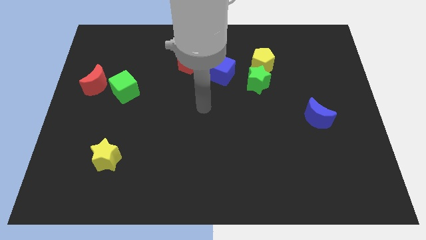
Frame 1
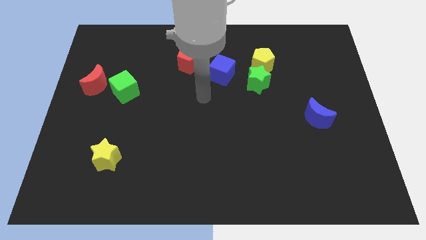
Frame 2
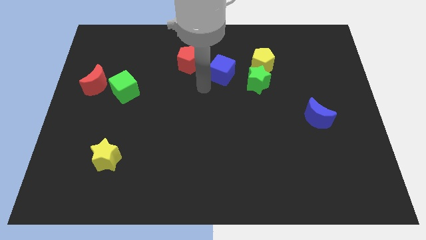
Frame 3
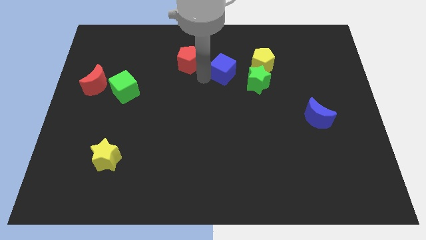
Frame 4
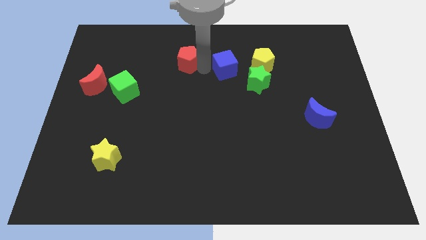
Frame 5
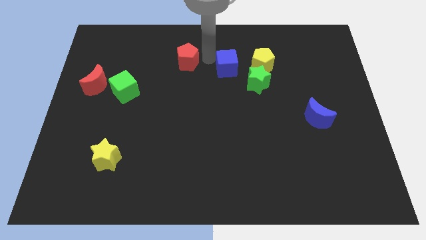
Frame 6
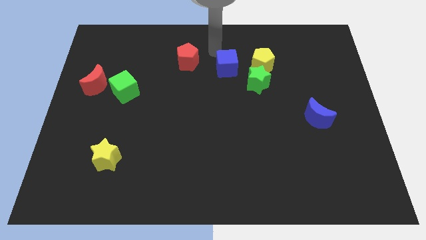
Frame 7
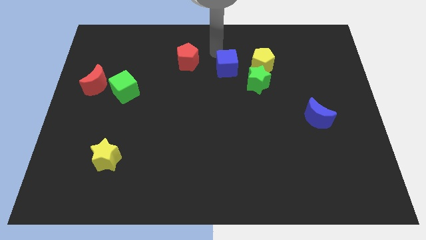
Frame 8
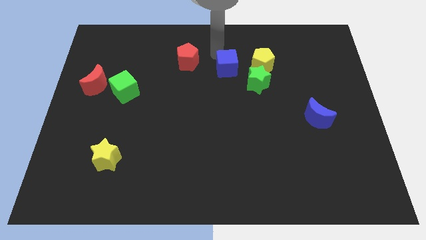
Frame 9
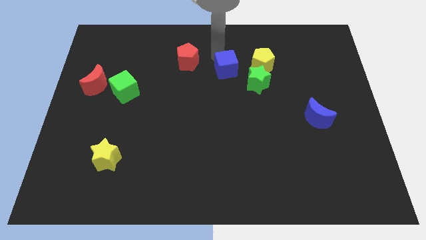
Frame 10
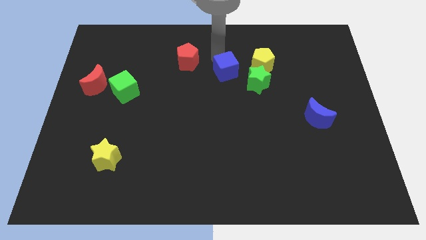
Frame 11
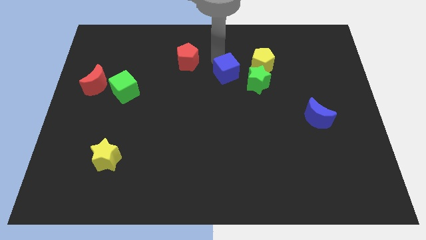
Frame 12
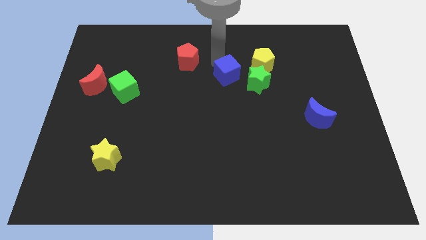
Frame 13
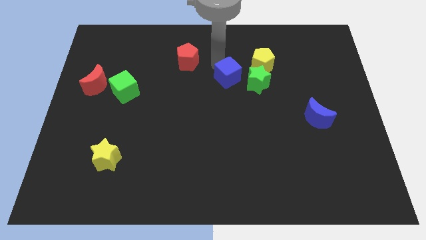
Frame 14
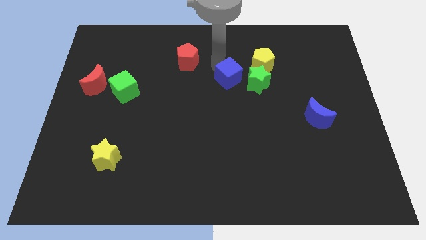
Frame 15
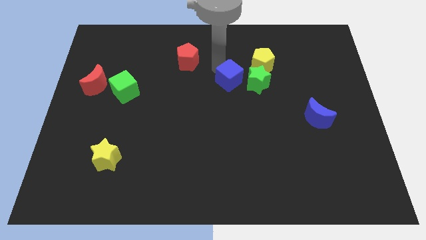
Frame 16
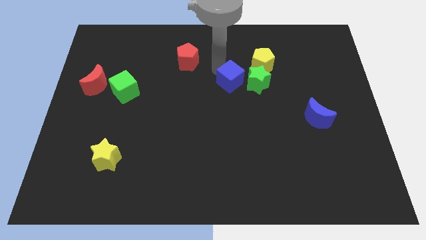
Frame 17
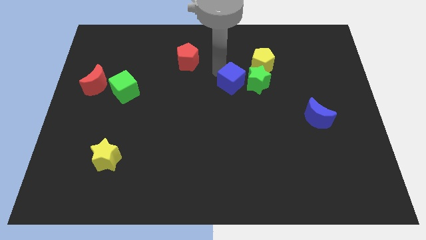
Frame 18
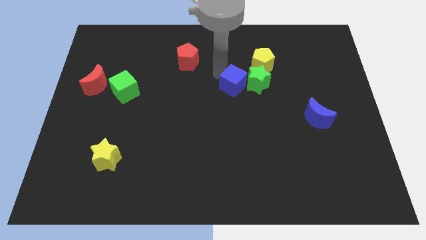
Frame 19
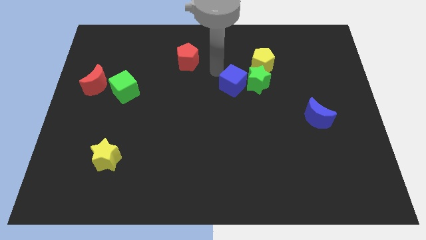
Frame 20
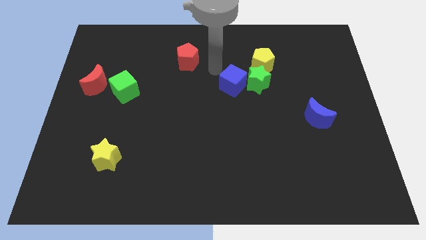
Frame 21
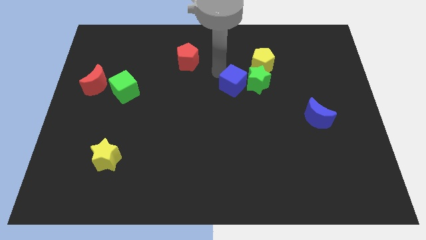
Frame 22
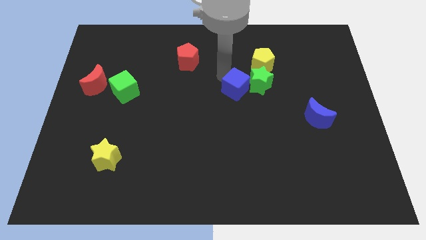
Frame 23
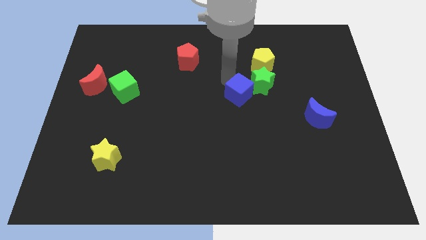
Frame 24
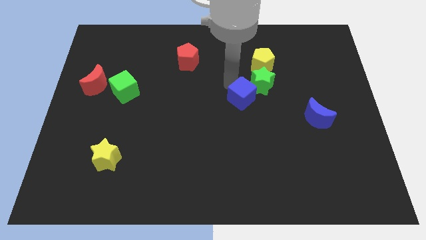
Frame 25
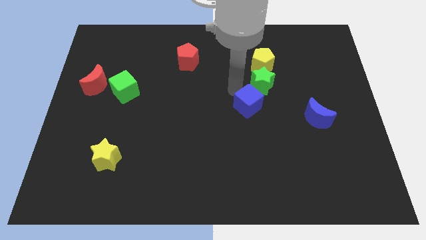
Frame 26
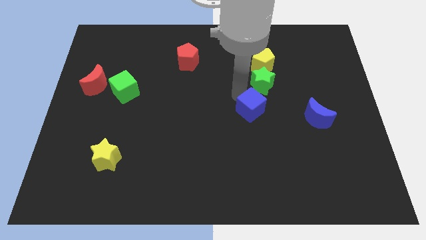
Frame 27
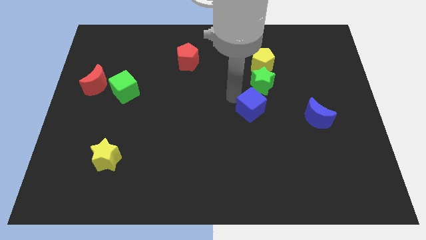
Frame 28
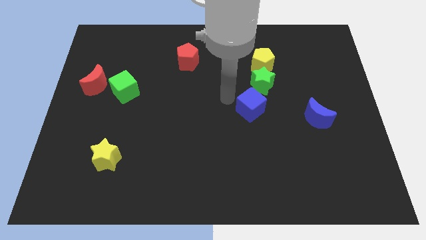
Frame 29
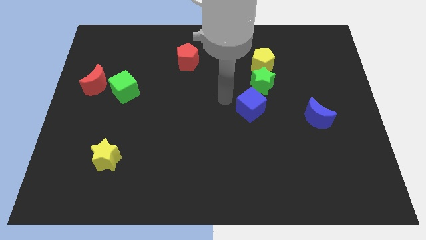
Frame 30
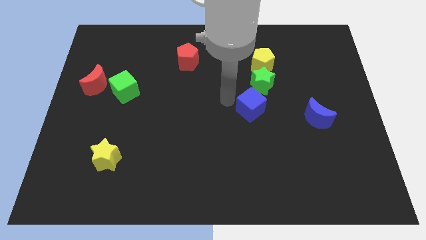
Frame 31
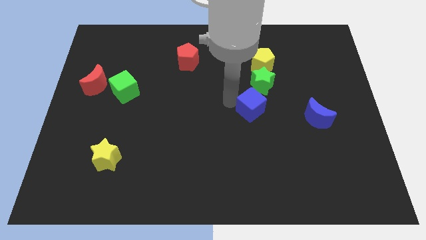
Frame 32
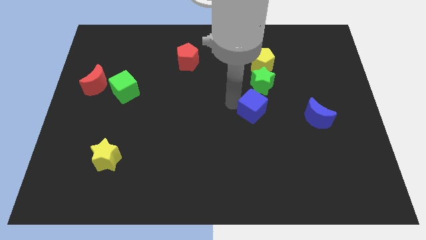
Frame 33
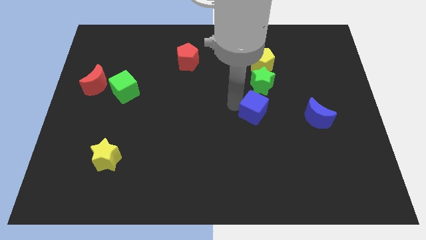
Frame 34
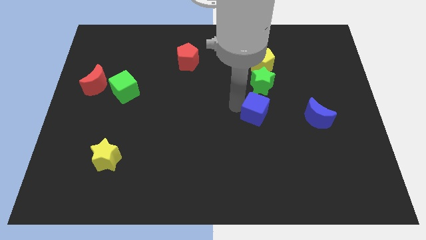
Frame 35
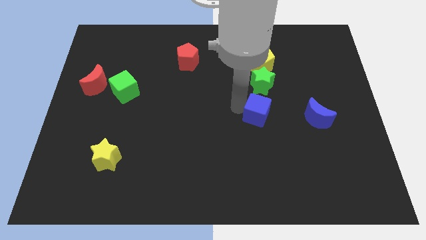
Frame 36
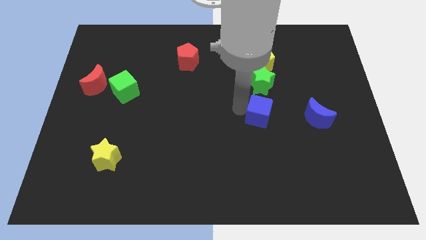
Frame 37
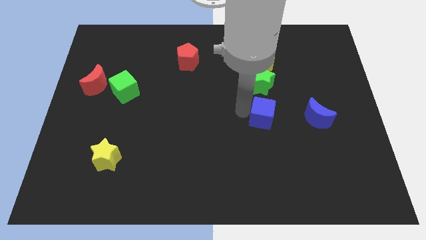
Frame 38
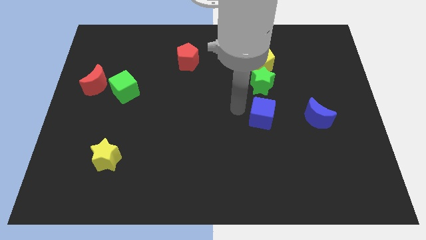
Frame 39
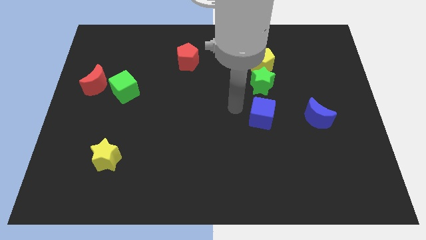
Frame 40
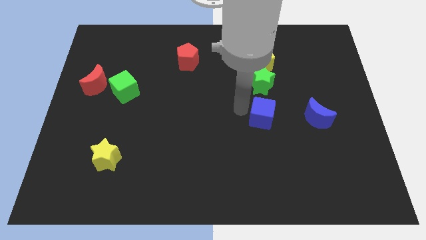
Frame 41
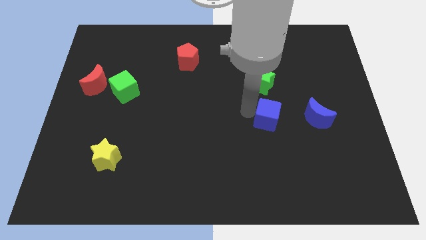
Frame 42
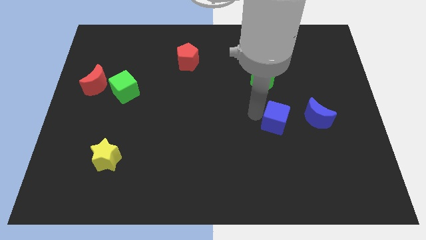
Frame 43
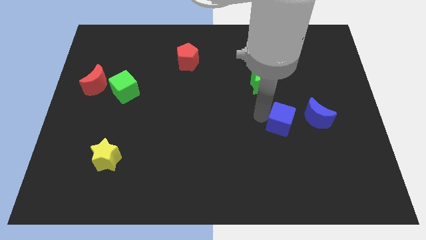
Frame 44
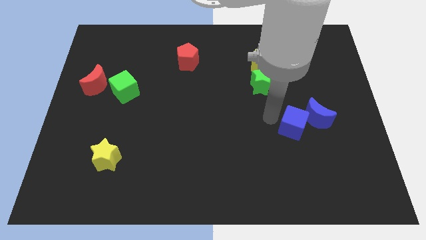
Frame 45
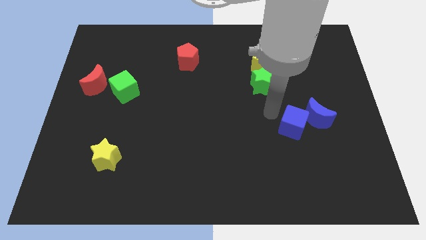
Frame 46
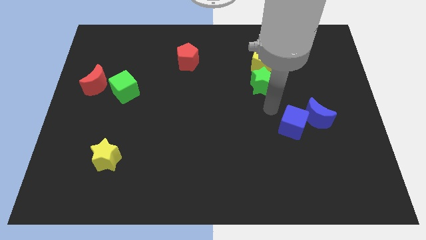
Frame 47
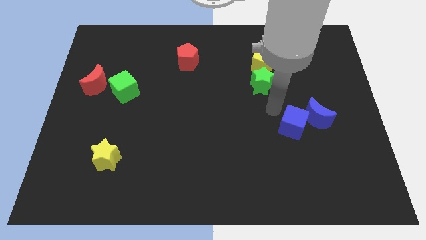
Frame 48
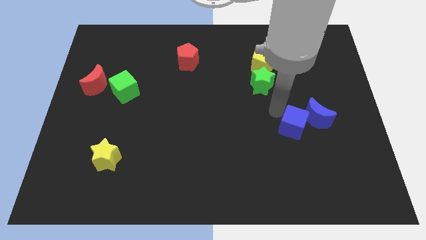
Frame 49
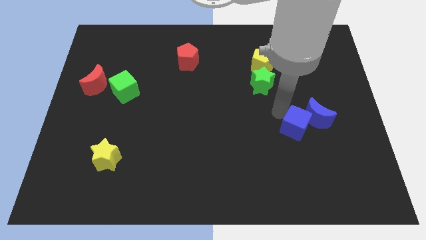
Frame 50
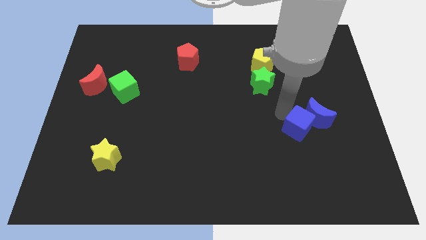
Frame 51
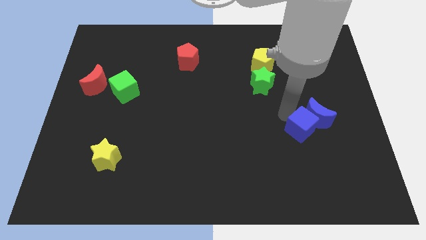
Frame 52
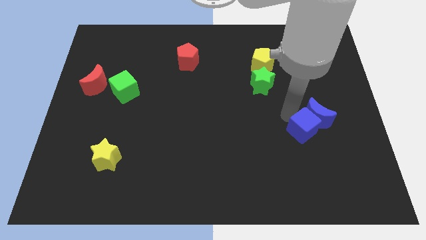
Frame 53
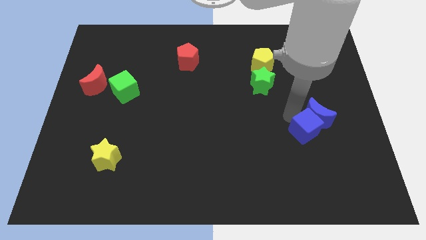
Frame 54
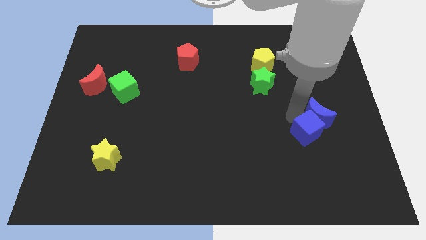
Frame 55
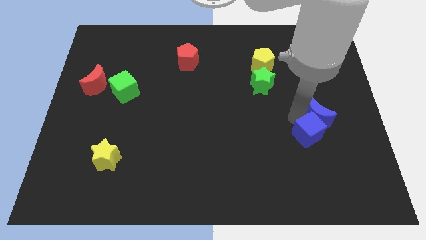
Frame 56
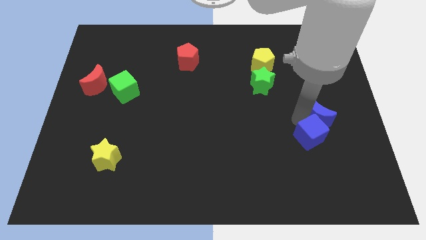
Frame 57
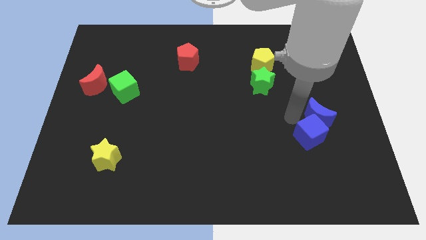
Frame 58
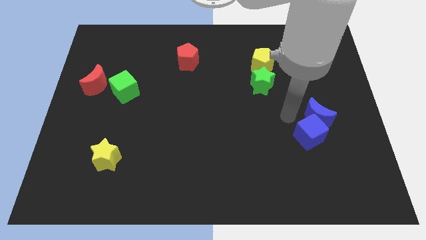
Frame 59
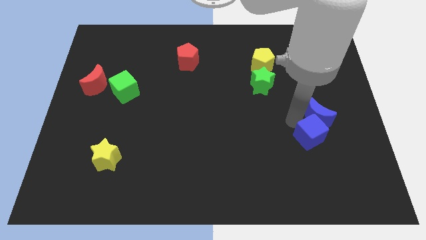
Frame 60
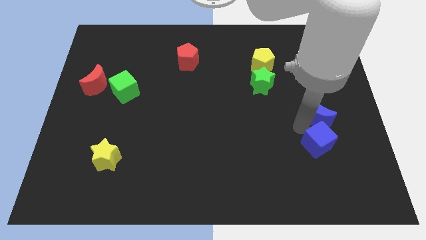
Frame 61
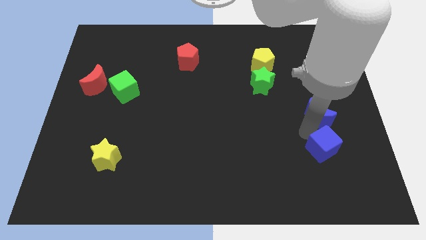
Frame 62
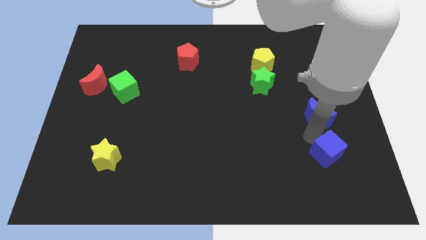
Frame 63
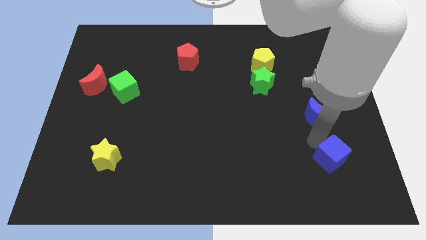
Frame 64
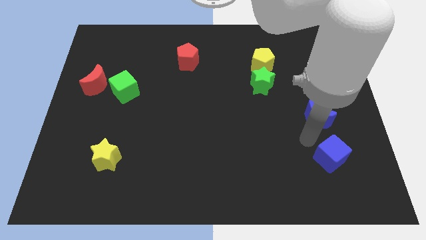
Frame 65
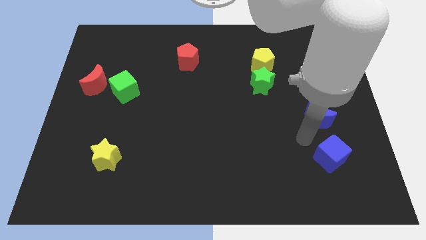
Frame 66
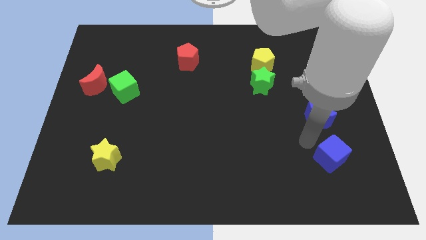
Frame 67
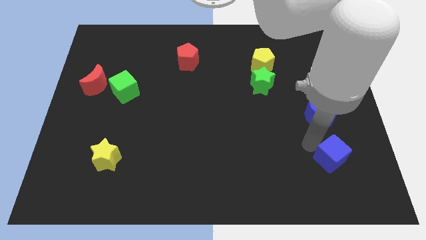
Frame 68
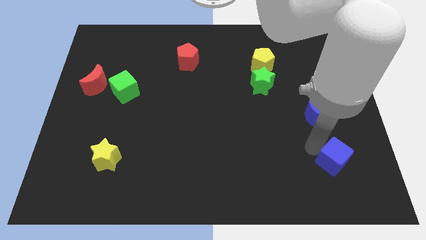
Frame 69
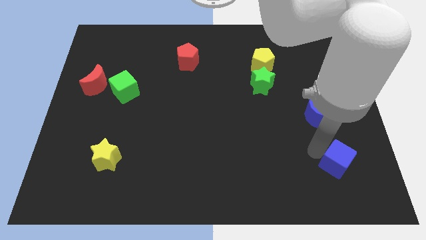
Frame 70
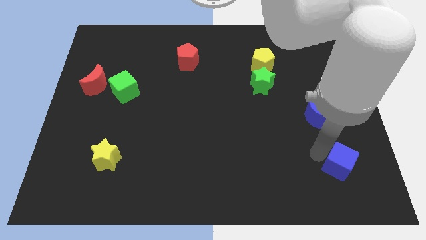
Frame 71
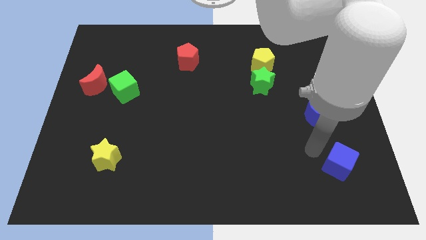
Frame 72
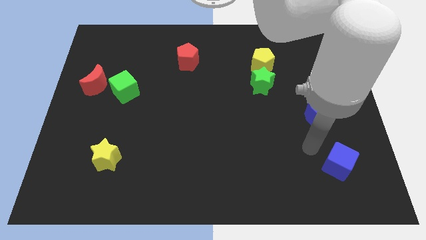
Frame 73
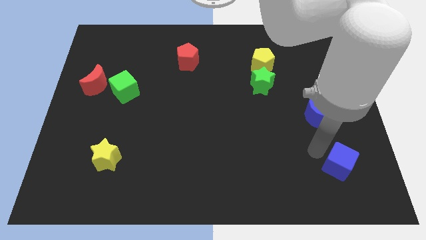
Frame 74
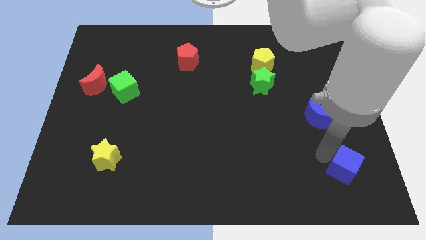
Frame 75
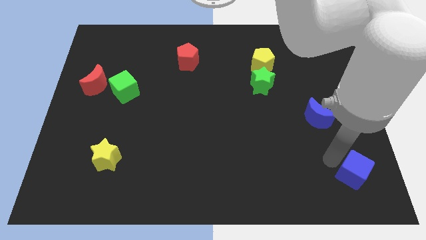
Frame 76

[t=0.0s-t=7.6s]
move the blue cube to the bottom right
